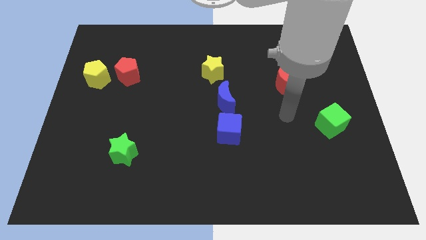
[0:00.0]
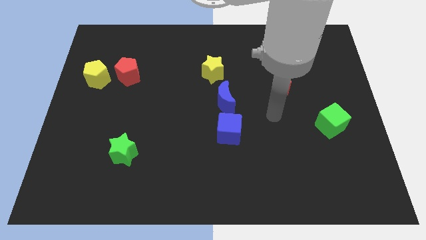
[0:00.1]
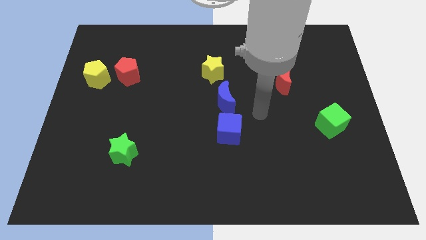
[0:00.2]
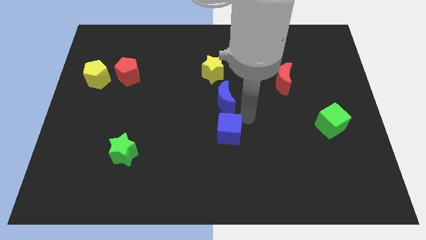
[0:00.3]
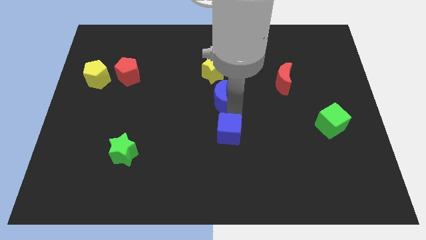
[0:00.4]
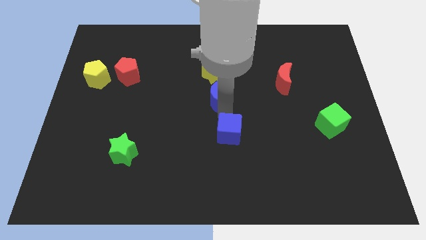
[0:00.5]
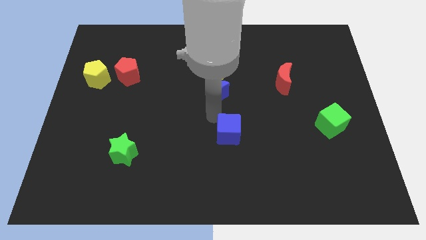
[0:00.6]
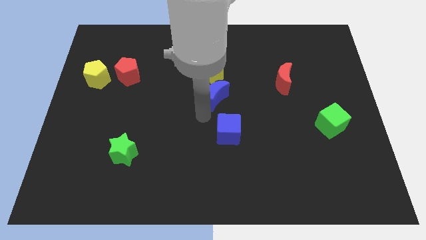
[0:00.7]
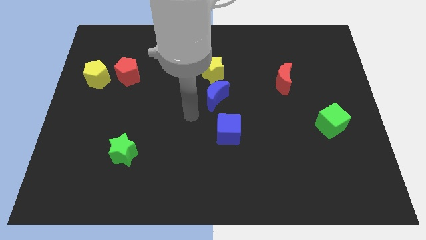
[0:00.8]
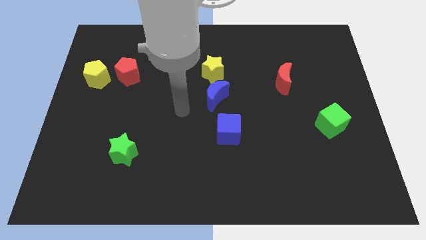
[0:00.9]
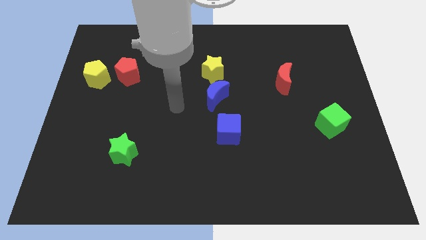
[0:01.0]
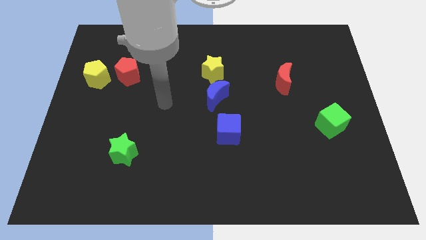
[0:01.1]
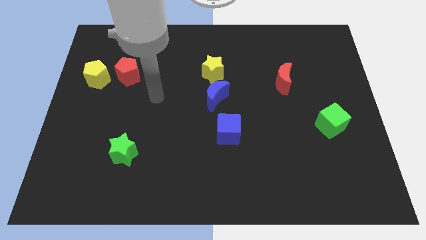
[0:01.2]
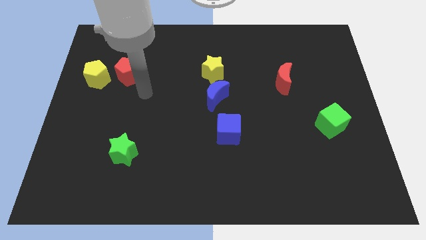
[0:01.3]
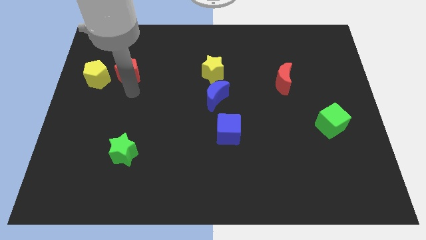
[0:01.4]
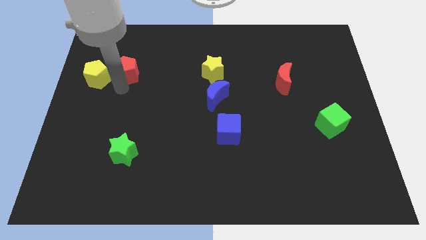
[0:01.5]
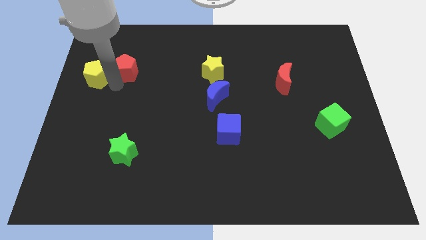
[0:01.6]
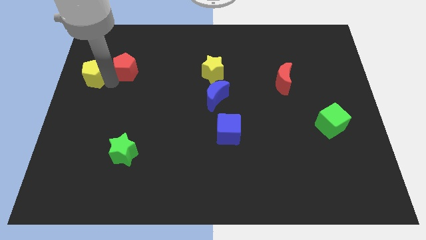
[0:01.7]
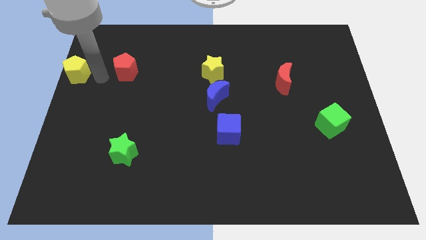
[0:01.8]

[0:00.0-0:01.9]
separate the red pentagon from the yellow pentagon

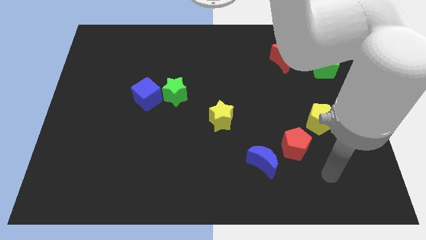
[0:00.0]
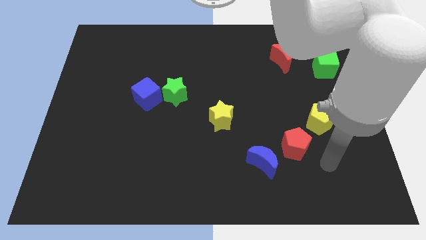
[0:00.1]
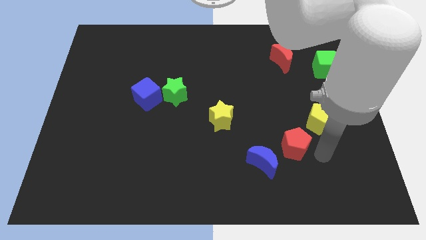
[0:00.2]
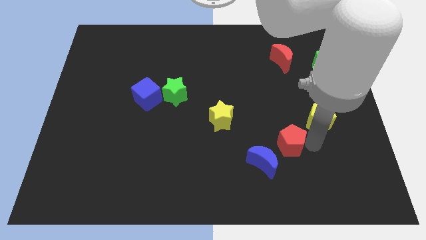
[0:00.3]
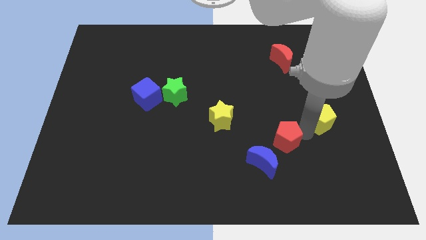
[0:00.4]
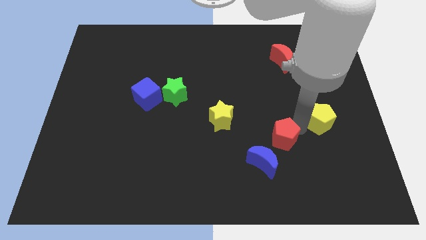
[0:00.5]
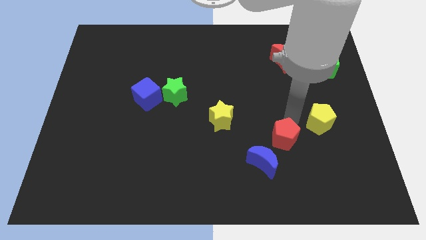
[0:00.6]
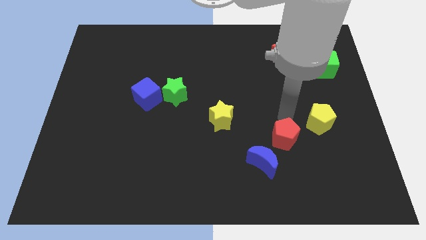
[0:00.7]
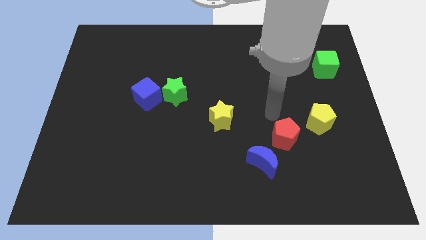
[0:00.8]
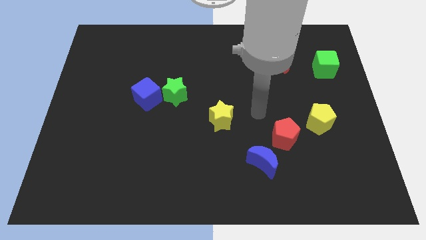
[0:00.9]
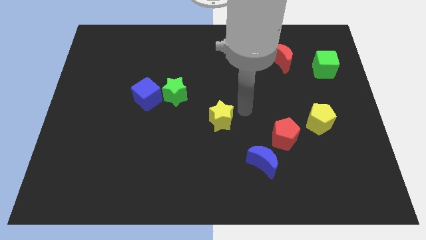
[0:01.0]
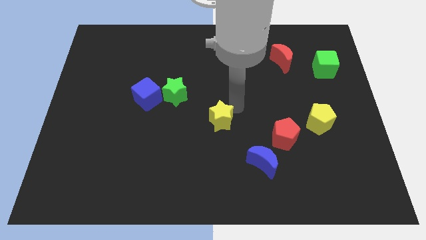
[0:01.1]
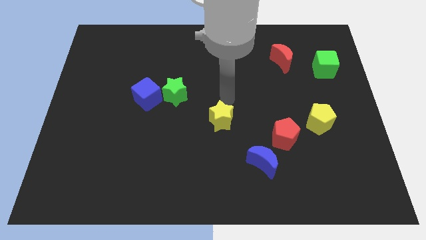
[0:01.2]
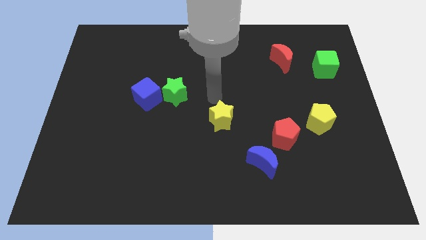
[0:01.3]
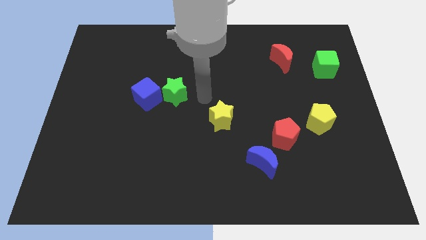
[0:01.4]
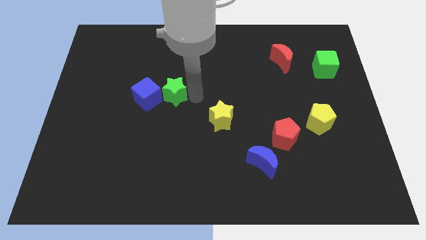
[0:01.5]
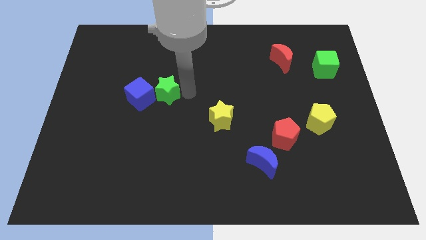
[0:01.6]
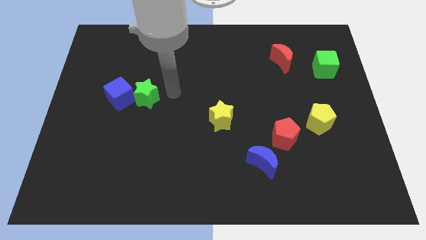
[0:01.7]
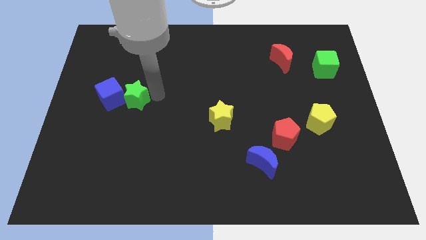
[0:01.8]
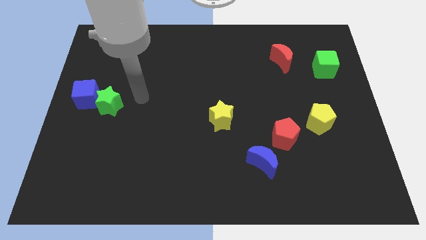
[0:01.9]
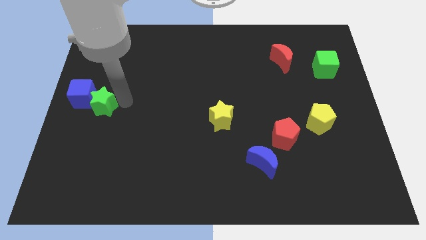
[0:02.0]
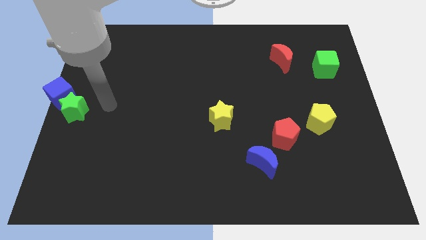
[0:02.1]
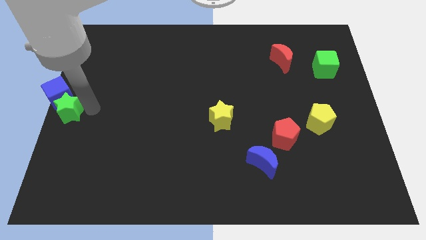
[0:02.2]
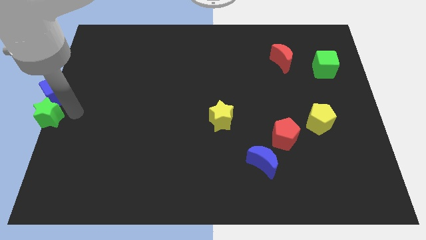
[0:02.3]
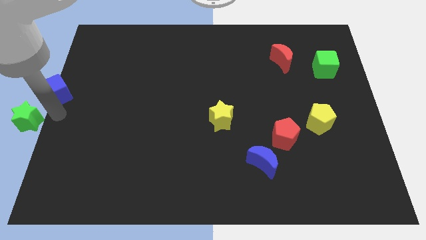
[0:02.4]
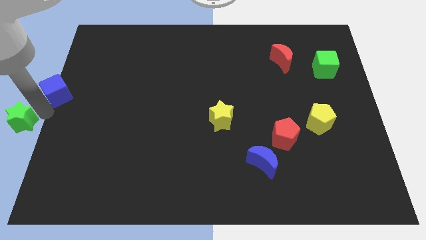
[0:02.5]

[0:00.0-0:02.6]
move the blue cube away from the green star

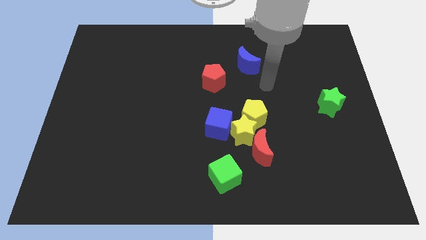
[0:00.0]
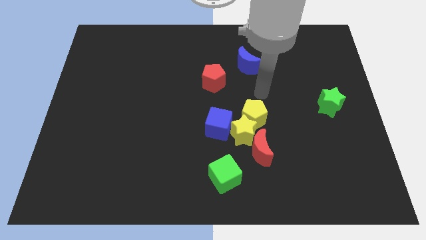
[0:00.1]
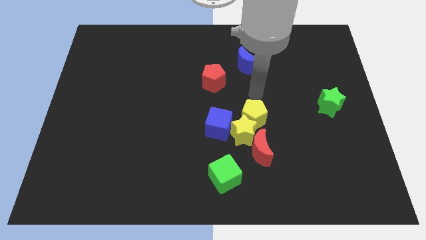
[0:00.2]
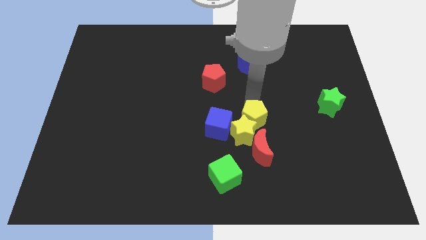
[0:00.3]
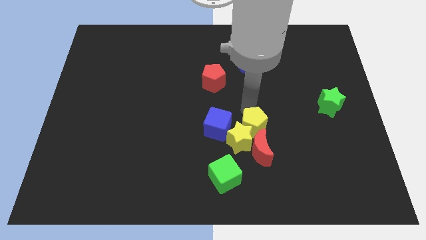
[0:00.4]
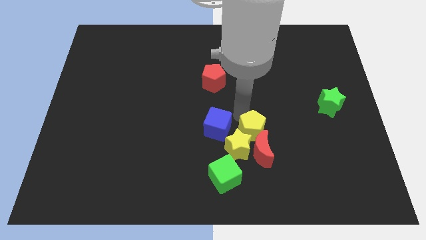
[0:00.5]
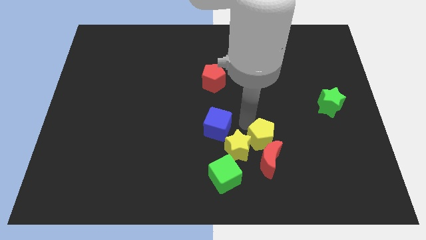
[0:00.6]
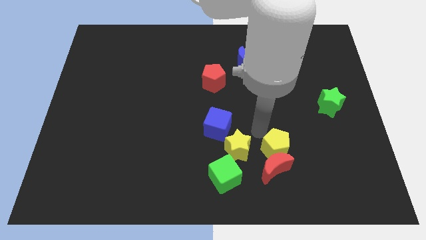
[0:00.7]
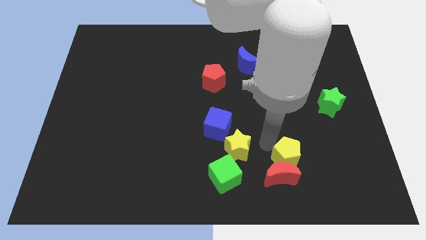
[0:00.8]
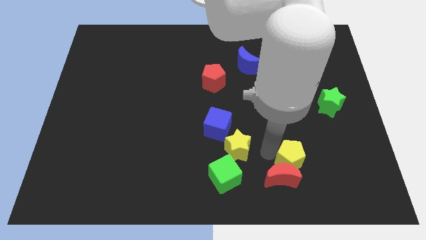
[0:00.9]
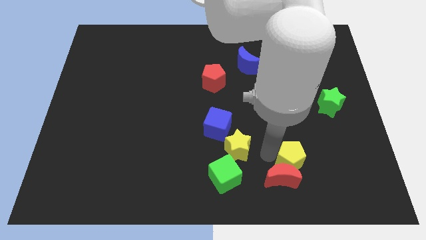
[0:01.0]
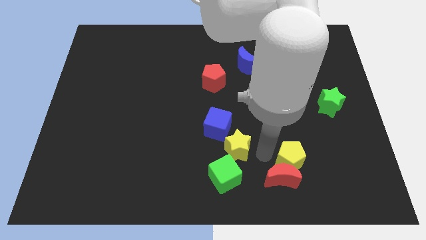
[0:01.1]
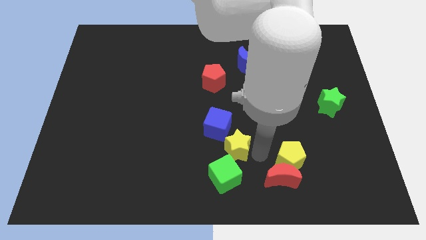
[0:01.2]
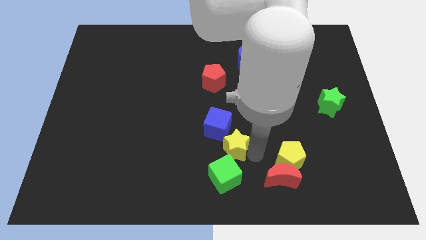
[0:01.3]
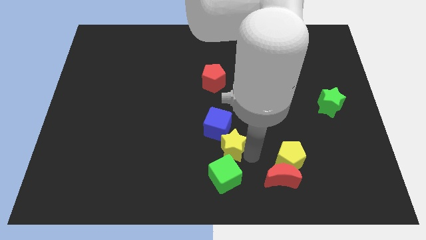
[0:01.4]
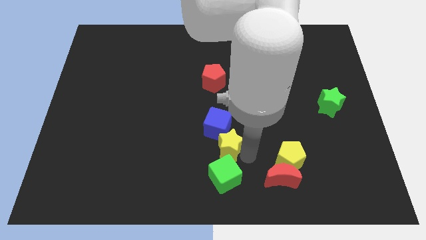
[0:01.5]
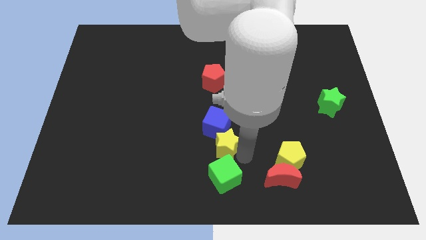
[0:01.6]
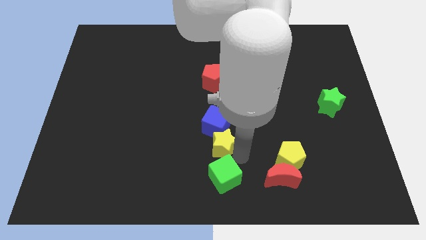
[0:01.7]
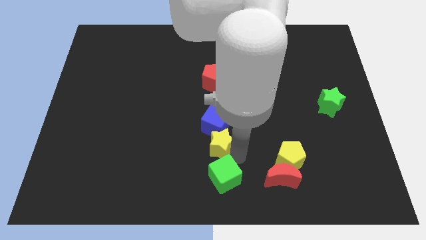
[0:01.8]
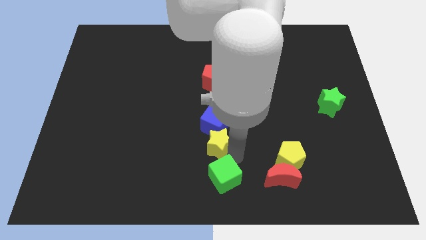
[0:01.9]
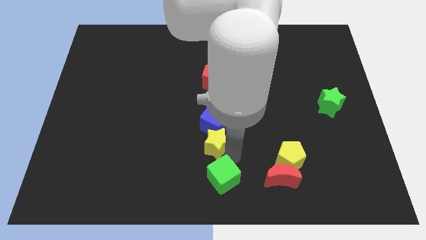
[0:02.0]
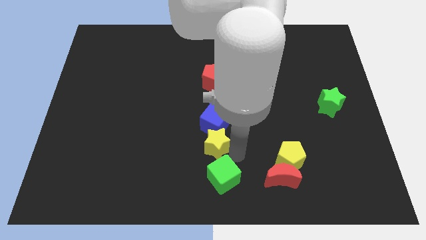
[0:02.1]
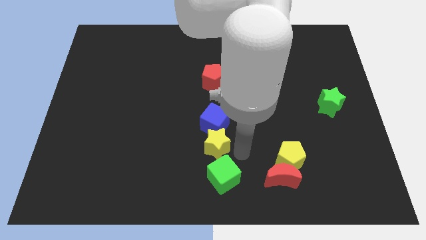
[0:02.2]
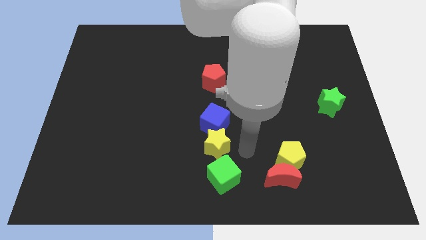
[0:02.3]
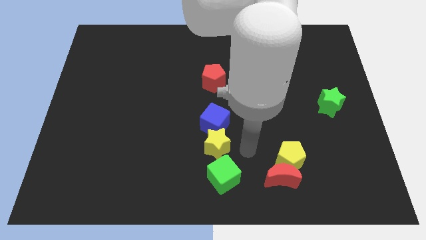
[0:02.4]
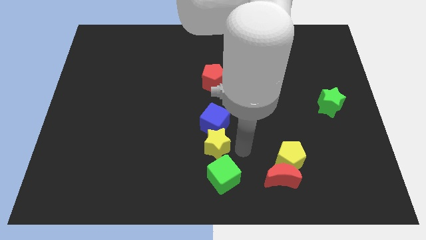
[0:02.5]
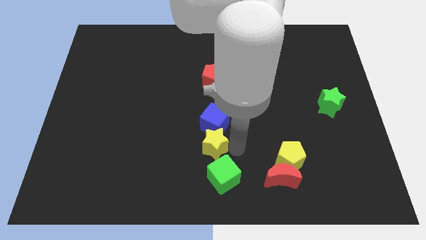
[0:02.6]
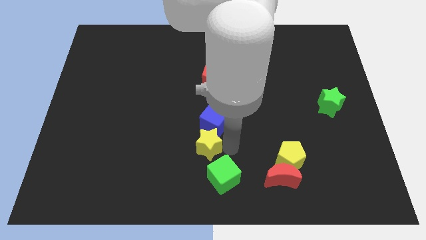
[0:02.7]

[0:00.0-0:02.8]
separate the yellow star from the yellow pentagon, red moon, and blue cube

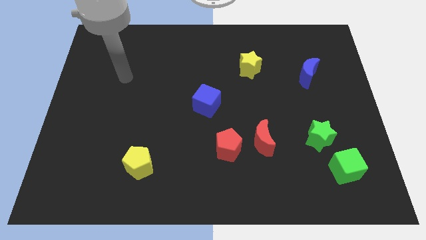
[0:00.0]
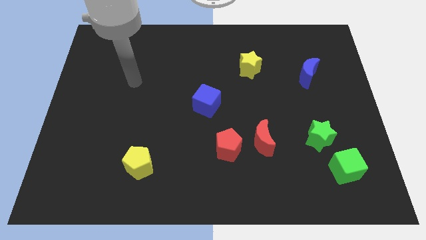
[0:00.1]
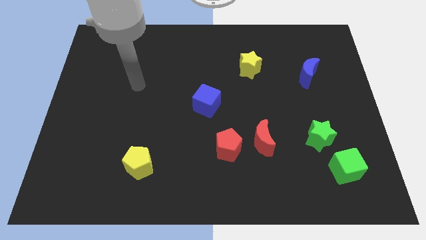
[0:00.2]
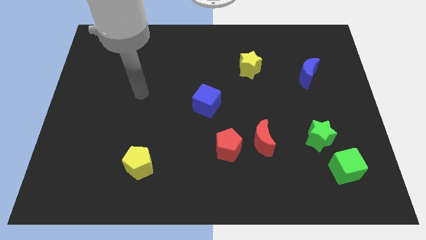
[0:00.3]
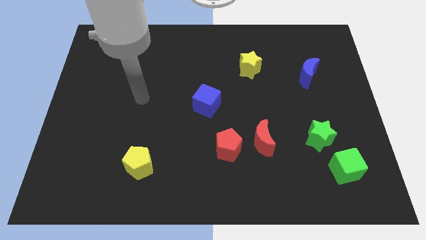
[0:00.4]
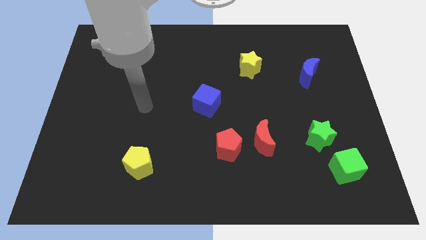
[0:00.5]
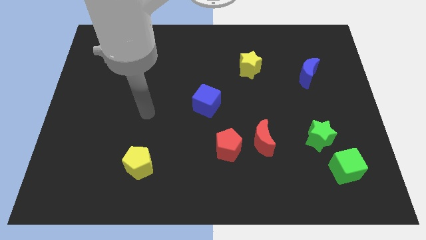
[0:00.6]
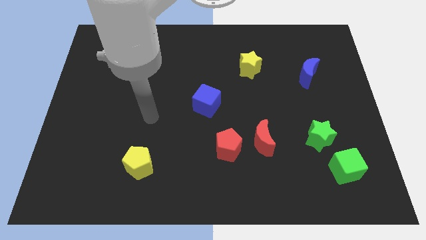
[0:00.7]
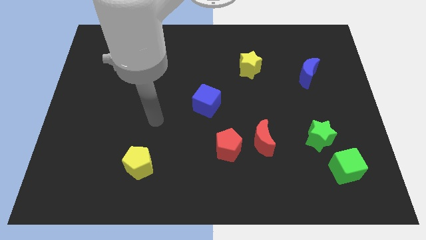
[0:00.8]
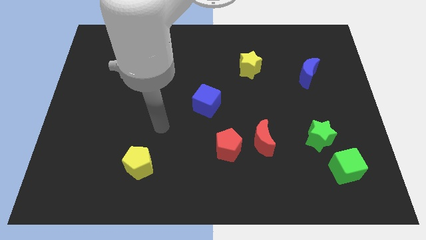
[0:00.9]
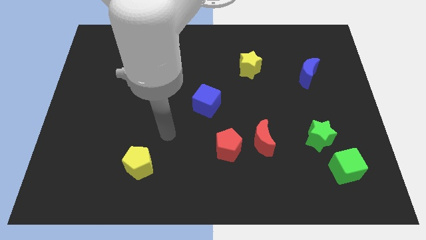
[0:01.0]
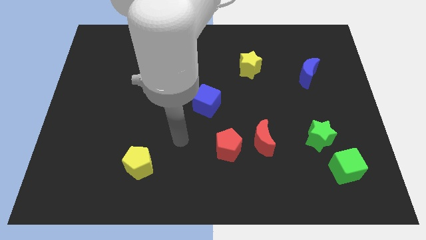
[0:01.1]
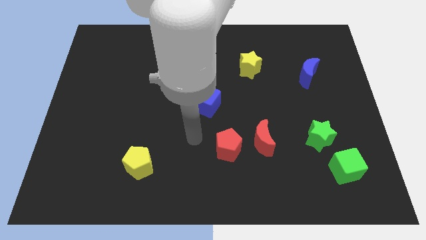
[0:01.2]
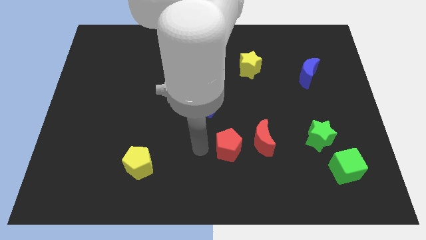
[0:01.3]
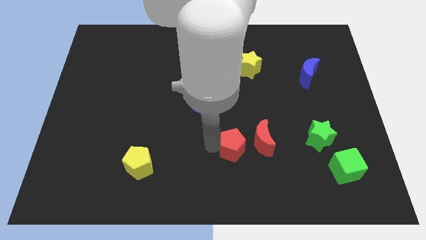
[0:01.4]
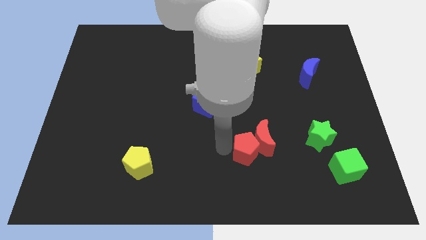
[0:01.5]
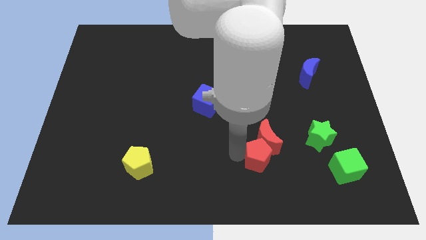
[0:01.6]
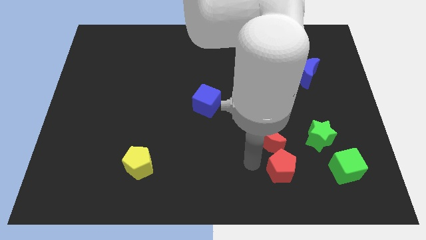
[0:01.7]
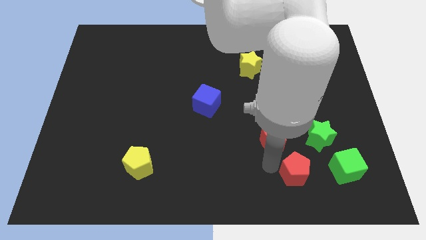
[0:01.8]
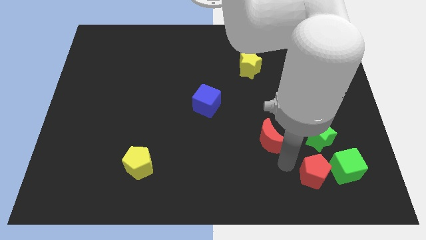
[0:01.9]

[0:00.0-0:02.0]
separate the red moon from the red pentagon
